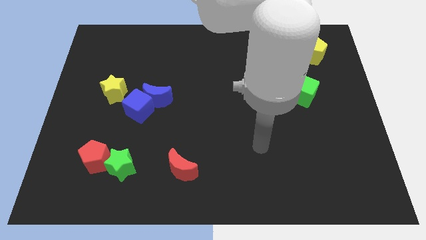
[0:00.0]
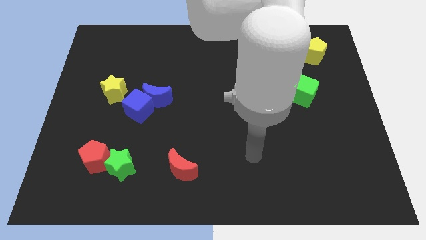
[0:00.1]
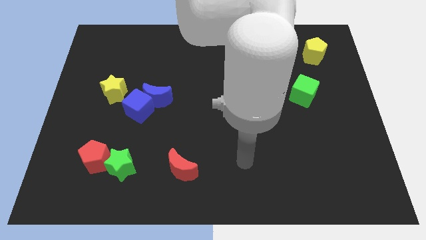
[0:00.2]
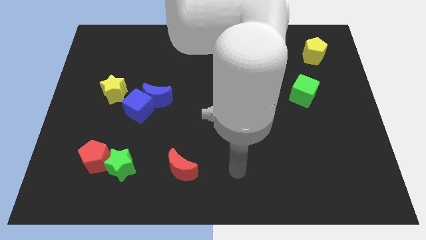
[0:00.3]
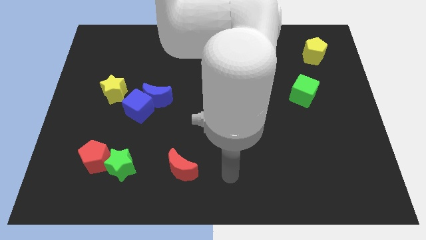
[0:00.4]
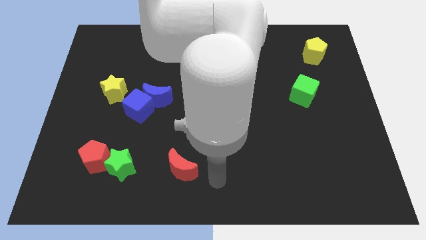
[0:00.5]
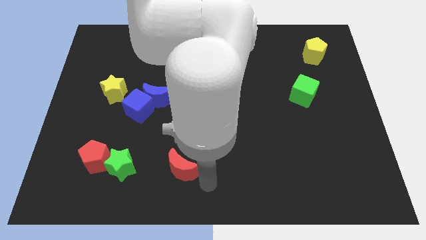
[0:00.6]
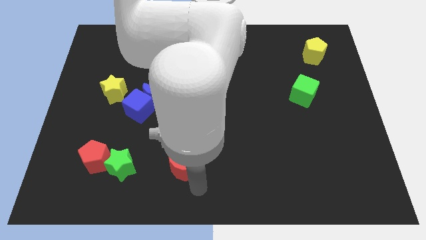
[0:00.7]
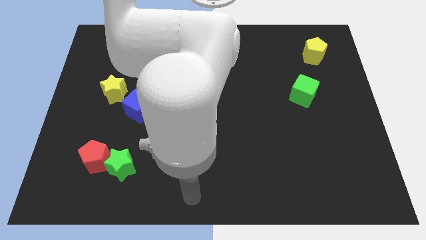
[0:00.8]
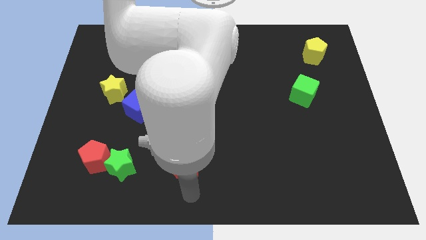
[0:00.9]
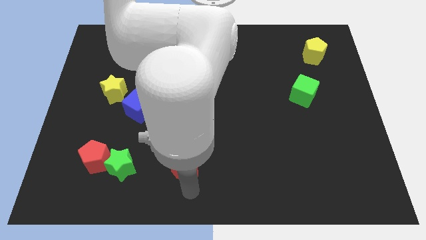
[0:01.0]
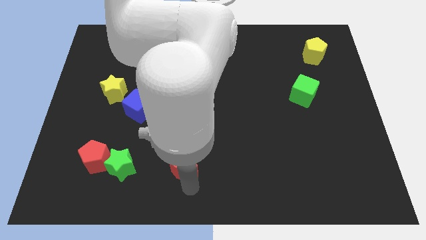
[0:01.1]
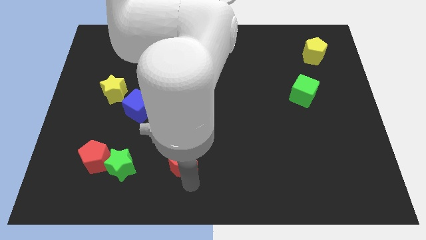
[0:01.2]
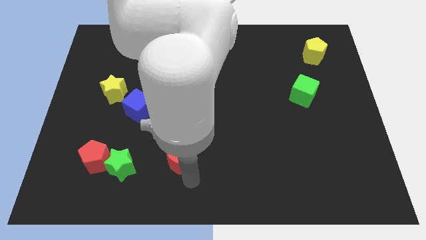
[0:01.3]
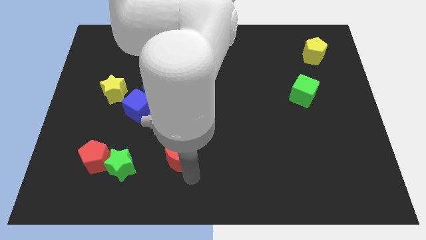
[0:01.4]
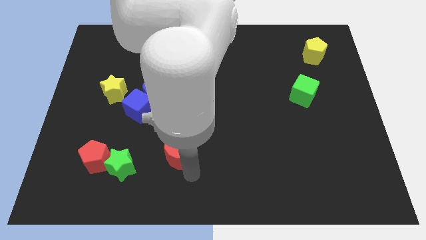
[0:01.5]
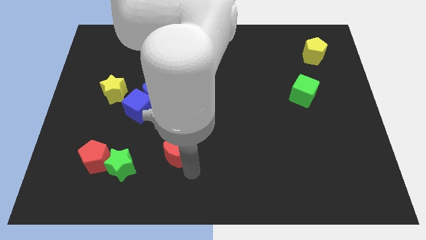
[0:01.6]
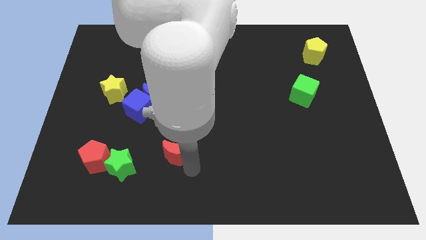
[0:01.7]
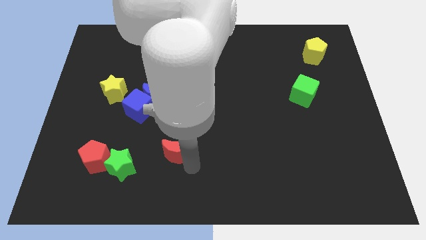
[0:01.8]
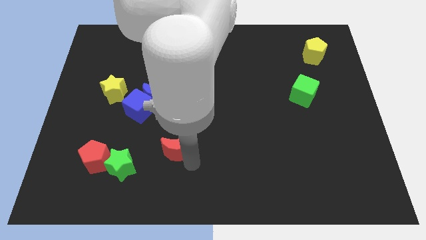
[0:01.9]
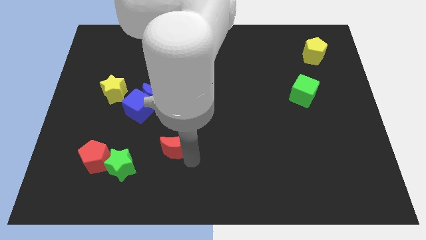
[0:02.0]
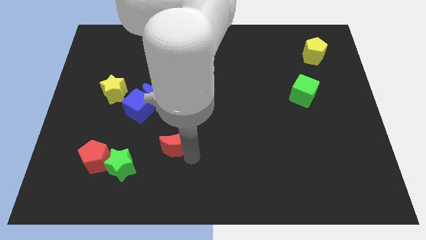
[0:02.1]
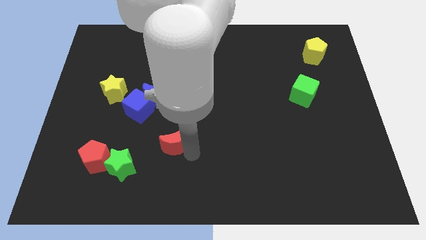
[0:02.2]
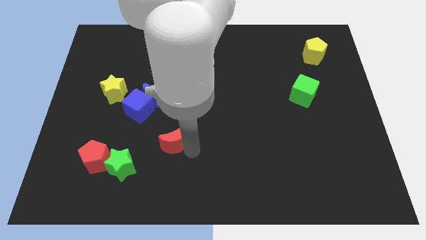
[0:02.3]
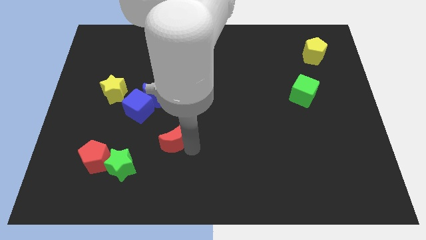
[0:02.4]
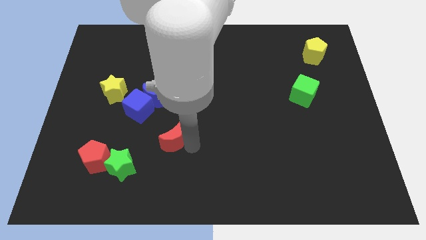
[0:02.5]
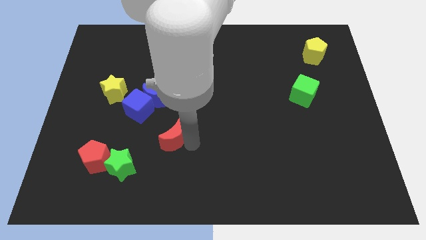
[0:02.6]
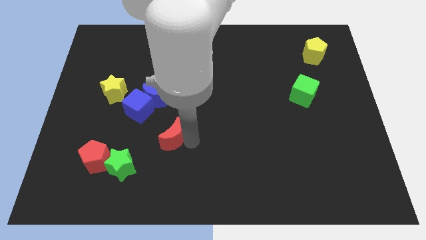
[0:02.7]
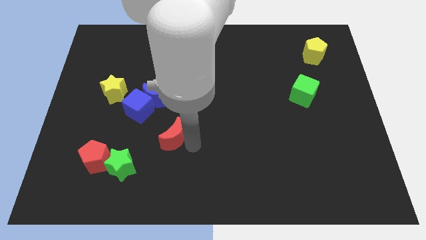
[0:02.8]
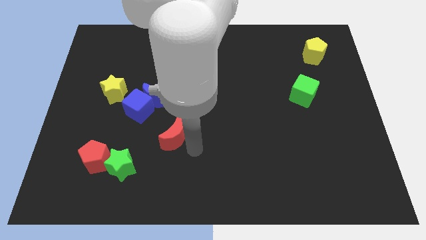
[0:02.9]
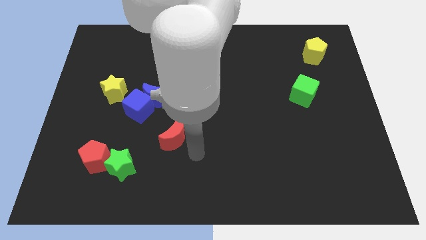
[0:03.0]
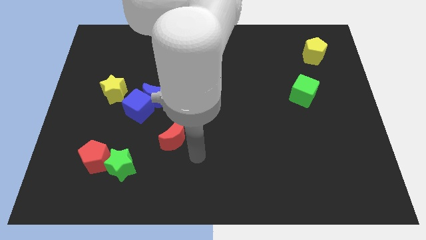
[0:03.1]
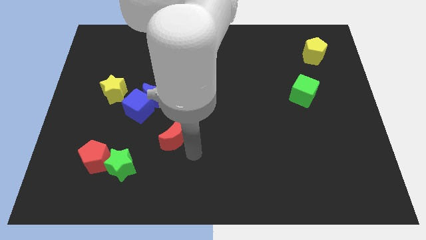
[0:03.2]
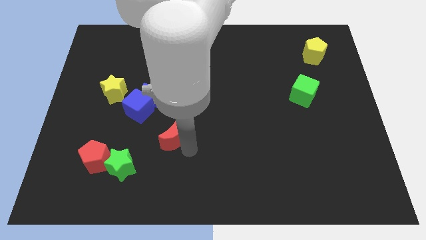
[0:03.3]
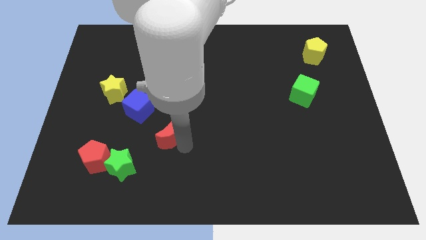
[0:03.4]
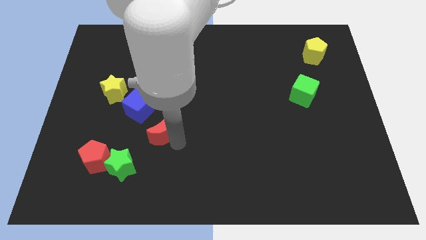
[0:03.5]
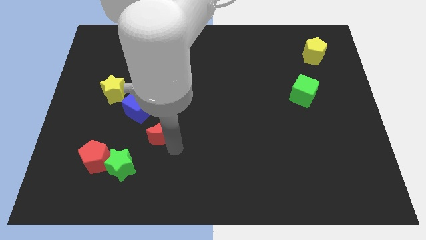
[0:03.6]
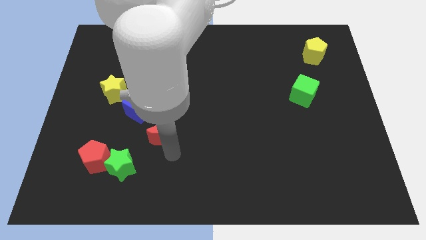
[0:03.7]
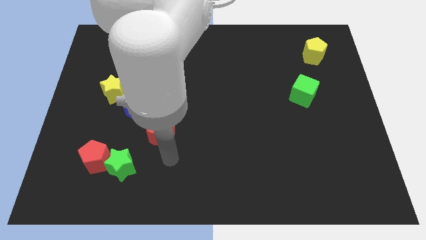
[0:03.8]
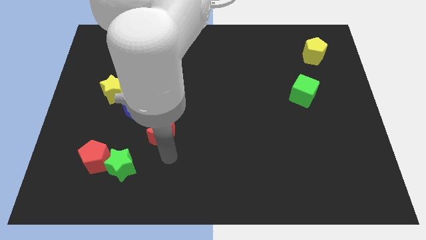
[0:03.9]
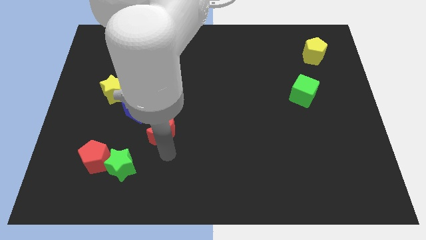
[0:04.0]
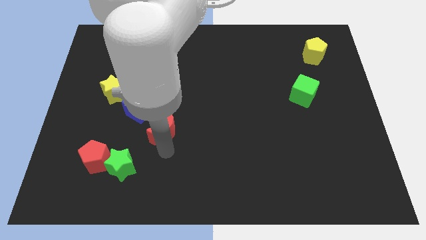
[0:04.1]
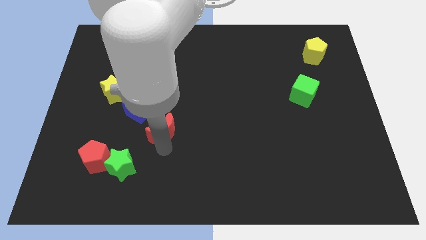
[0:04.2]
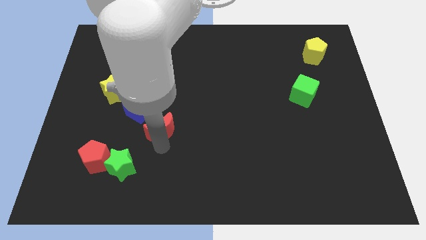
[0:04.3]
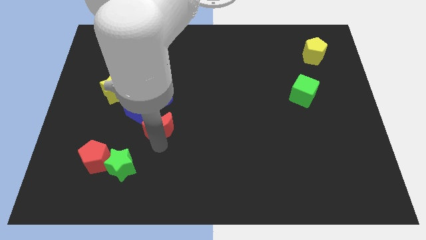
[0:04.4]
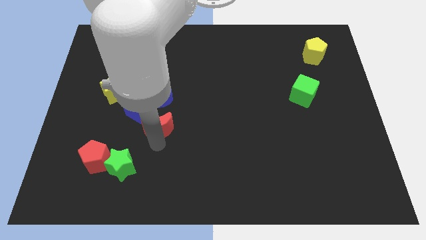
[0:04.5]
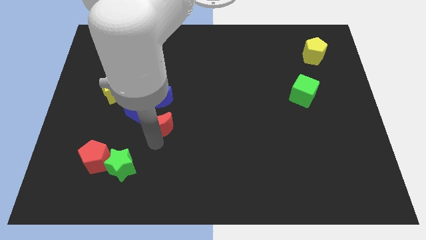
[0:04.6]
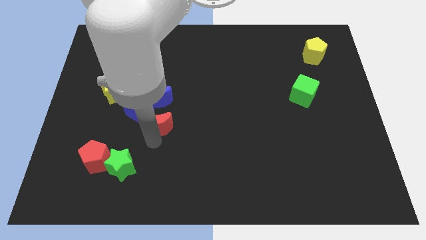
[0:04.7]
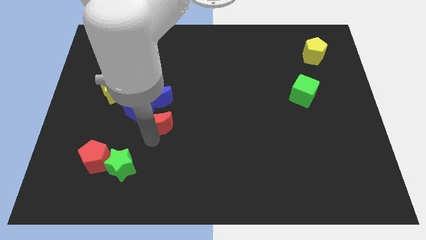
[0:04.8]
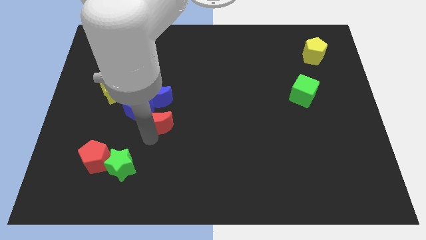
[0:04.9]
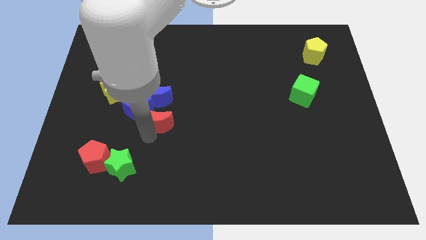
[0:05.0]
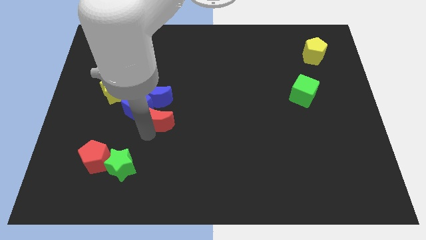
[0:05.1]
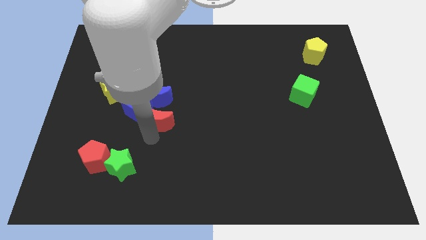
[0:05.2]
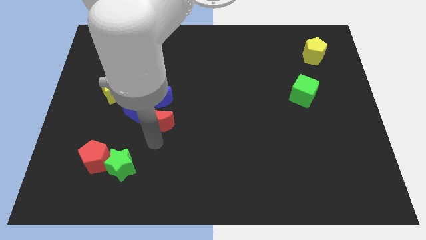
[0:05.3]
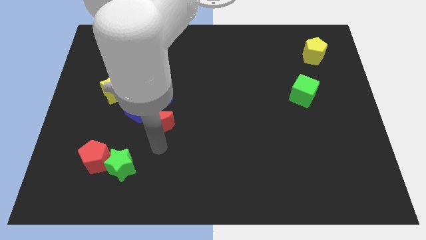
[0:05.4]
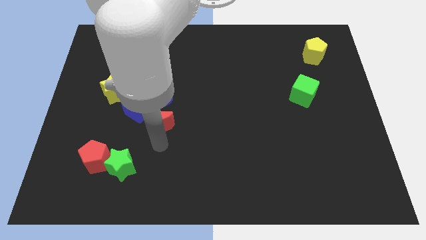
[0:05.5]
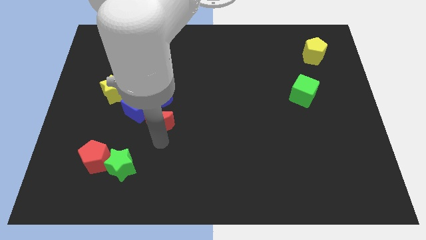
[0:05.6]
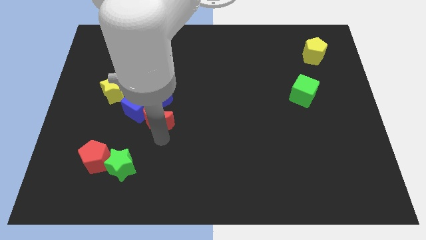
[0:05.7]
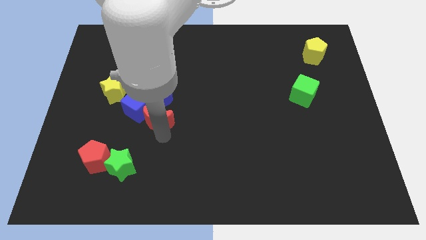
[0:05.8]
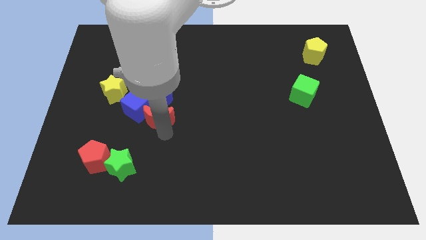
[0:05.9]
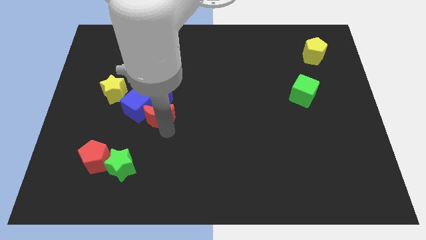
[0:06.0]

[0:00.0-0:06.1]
slide the red moon next to the blue moon

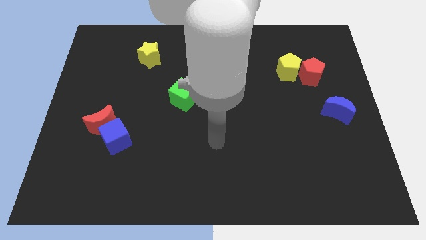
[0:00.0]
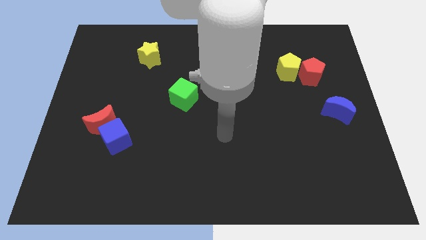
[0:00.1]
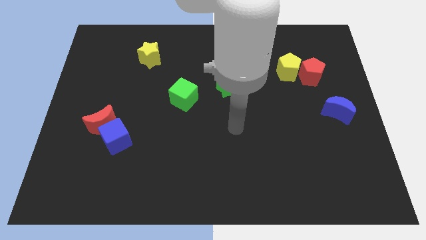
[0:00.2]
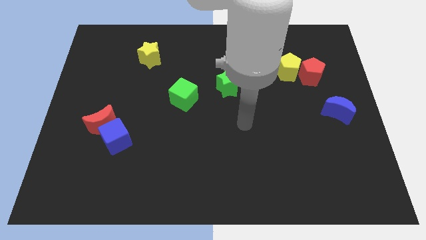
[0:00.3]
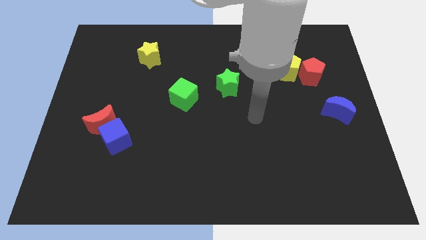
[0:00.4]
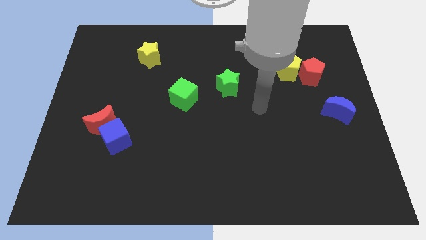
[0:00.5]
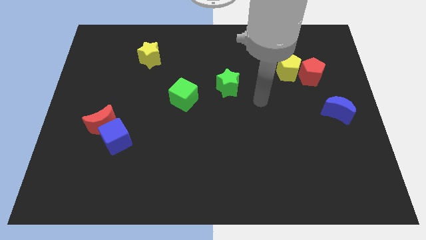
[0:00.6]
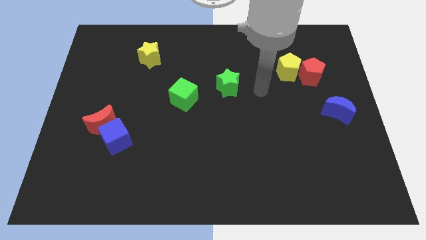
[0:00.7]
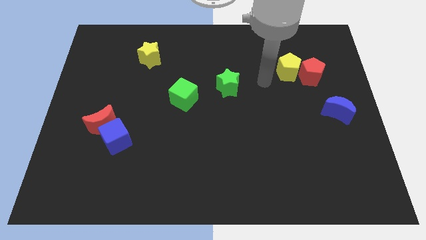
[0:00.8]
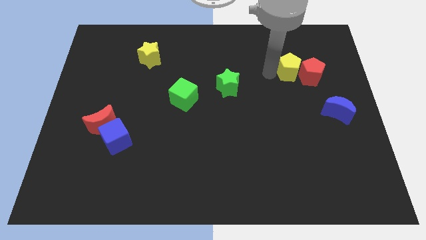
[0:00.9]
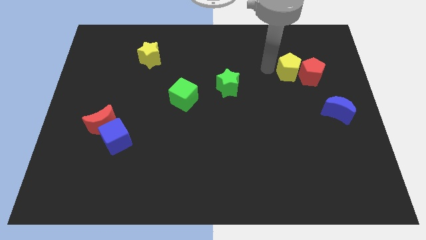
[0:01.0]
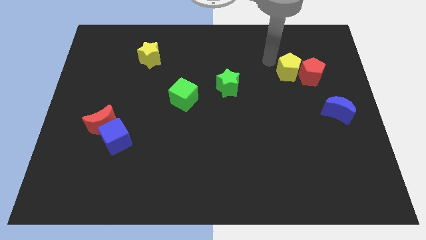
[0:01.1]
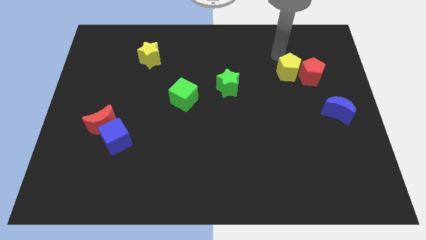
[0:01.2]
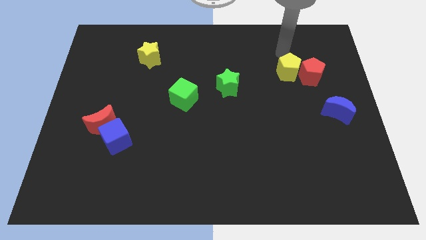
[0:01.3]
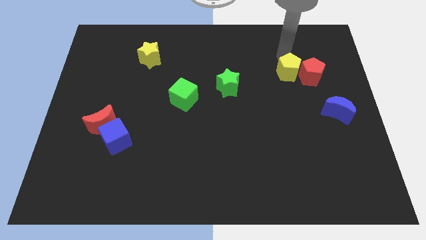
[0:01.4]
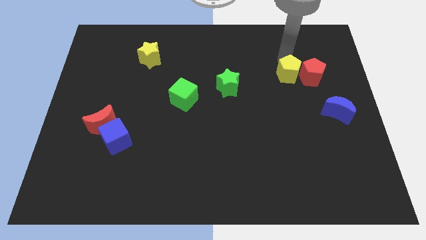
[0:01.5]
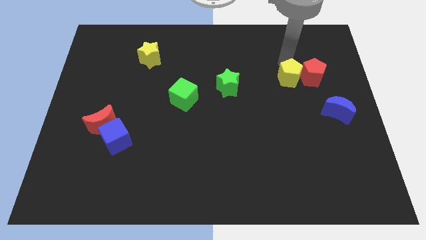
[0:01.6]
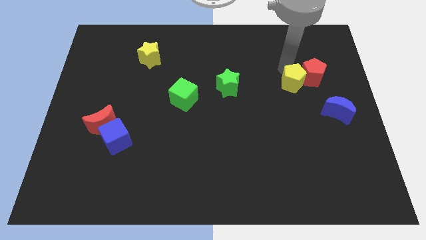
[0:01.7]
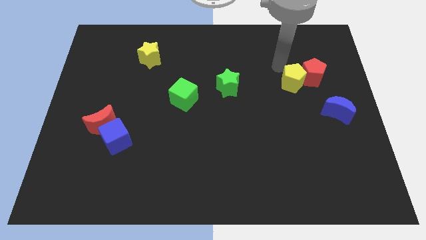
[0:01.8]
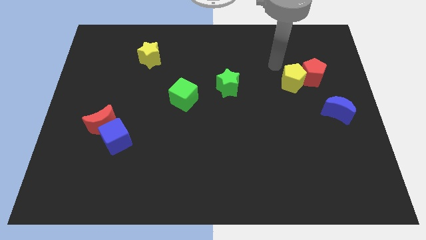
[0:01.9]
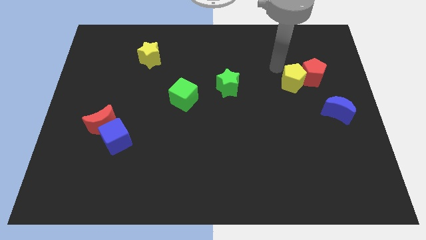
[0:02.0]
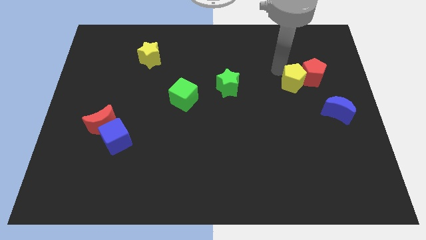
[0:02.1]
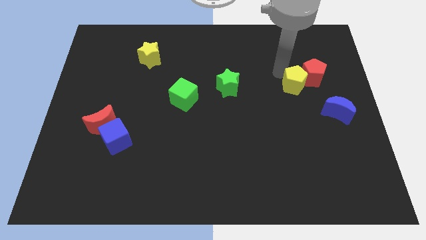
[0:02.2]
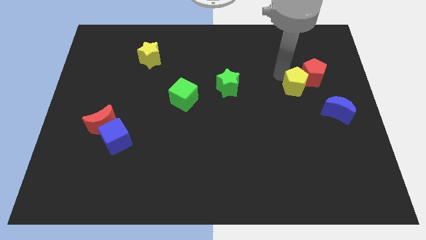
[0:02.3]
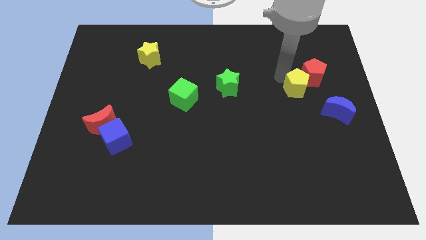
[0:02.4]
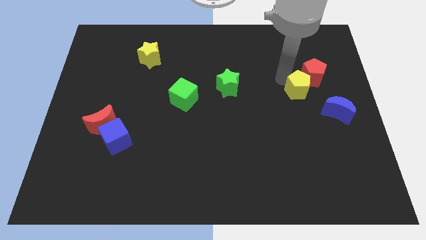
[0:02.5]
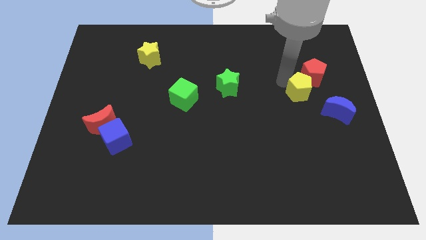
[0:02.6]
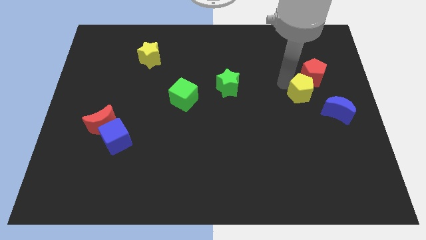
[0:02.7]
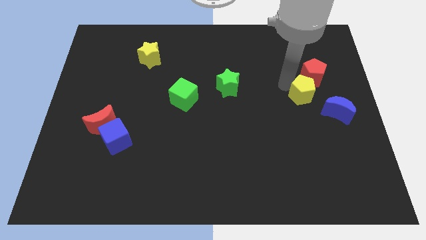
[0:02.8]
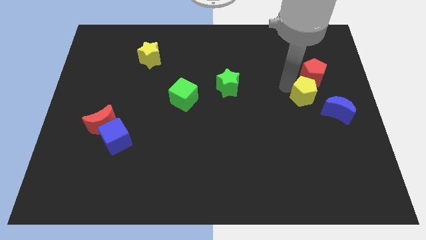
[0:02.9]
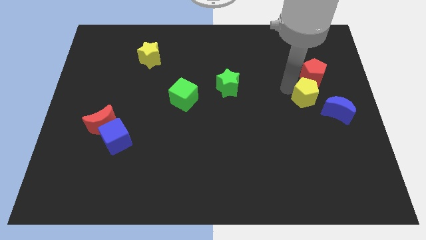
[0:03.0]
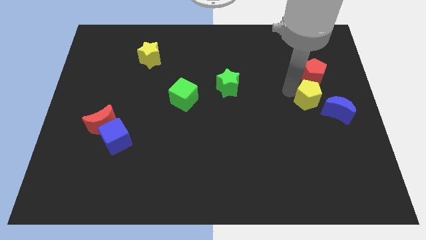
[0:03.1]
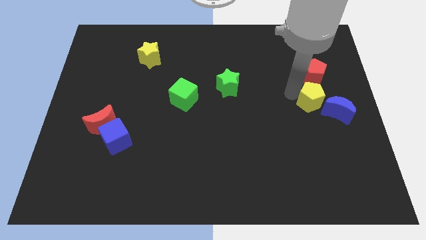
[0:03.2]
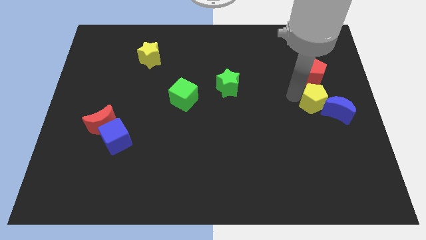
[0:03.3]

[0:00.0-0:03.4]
put the yellow pentagon close to the blue moon
